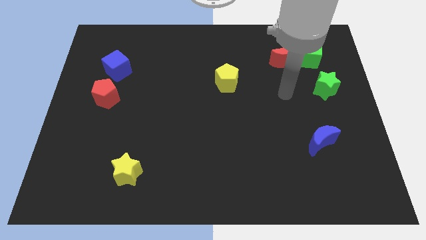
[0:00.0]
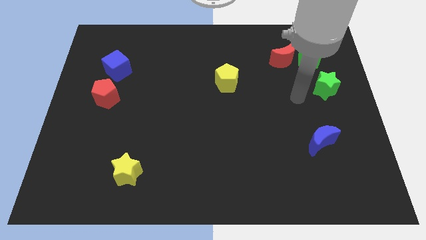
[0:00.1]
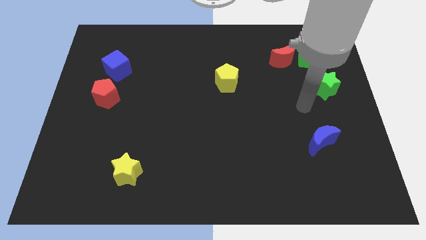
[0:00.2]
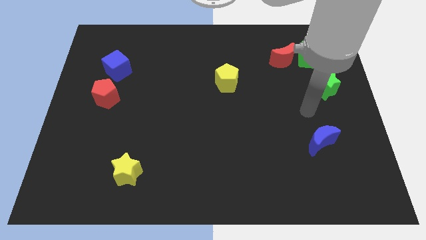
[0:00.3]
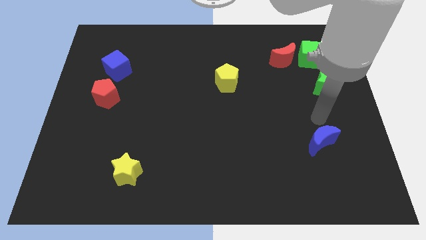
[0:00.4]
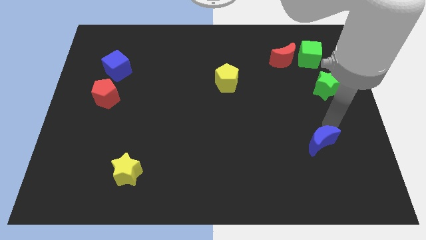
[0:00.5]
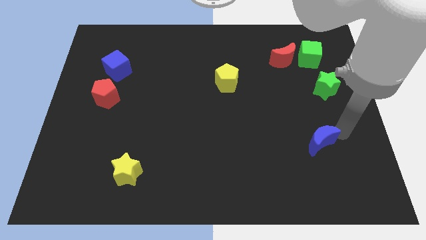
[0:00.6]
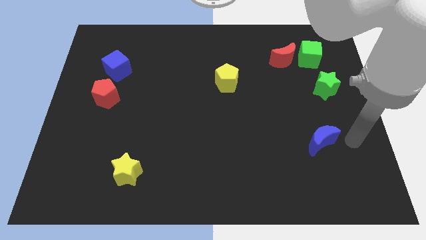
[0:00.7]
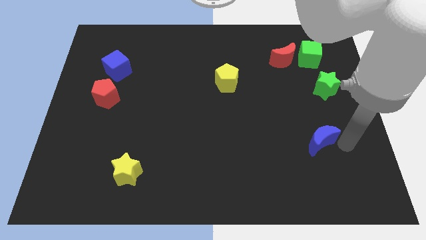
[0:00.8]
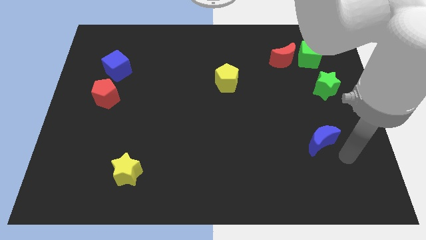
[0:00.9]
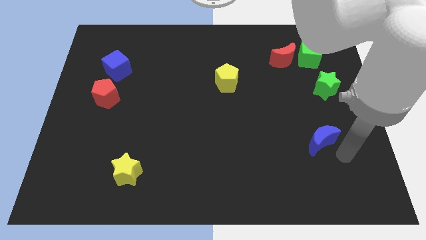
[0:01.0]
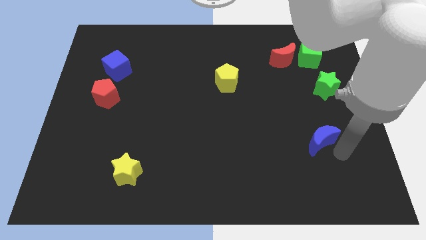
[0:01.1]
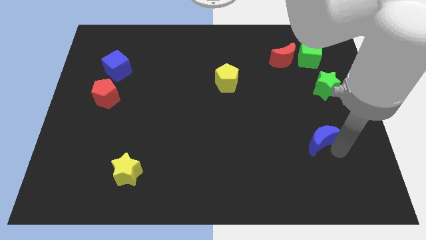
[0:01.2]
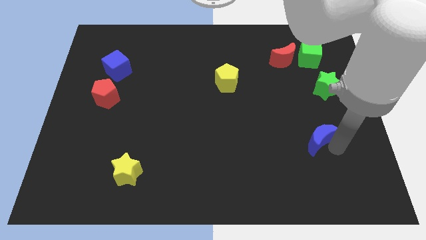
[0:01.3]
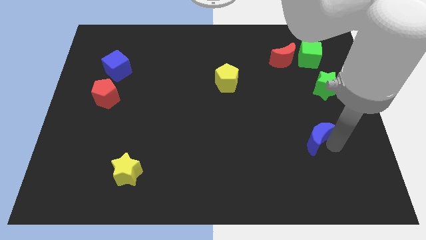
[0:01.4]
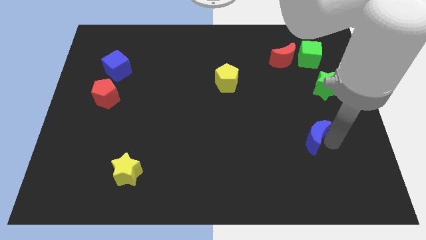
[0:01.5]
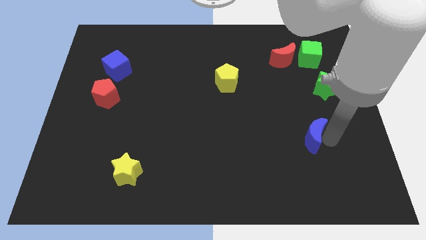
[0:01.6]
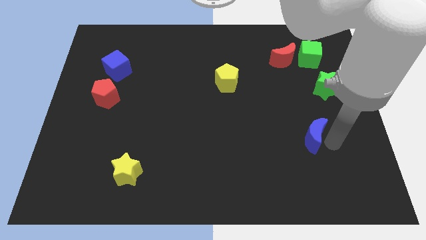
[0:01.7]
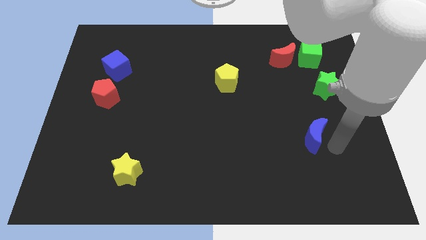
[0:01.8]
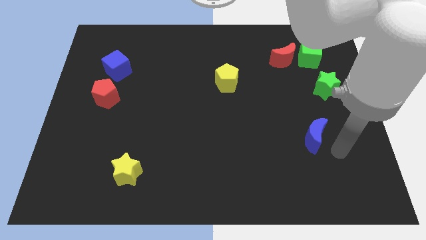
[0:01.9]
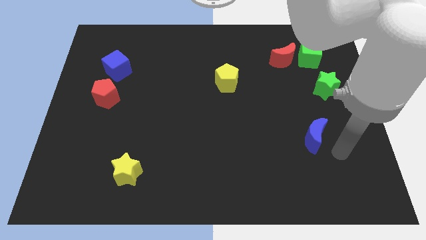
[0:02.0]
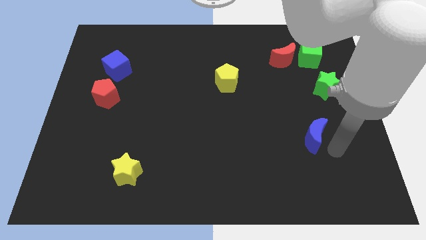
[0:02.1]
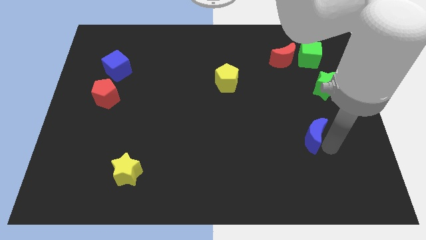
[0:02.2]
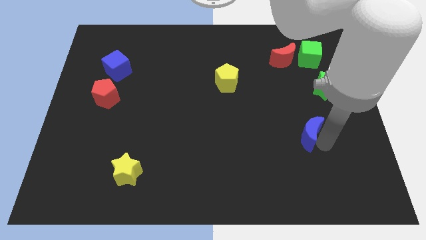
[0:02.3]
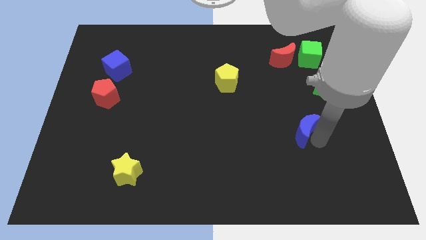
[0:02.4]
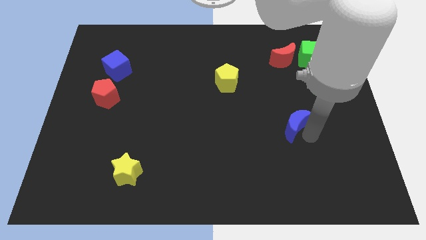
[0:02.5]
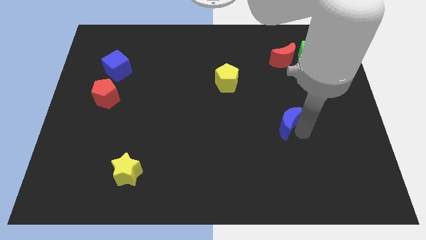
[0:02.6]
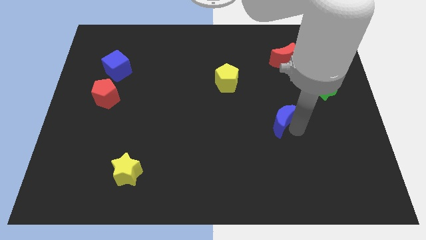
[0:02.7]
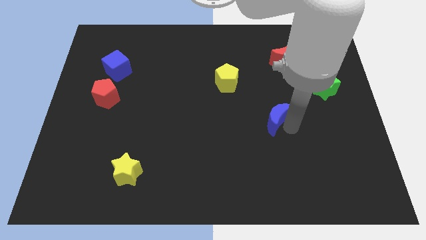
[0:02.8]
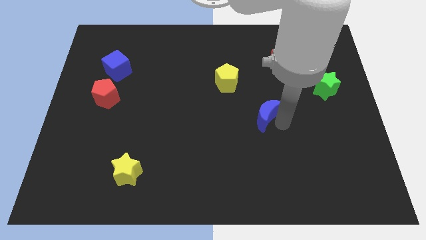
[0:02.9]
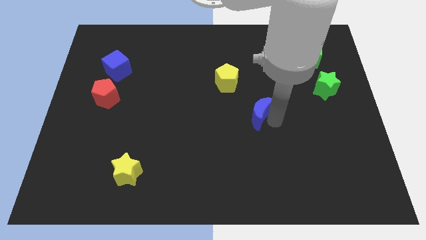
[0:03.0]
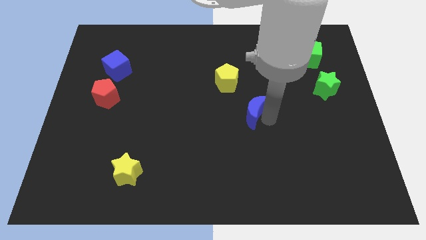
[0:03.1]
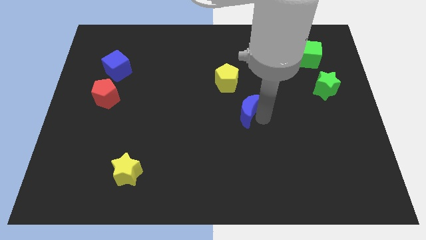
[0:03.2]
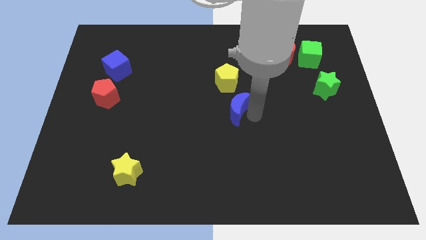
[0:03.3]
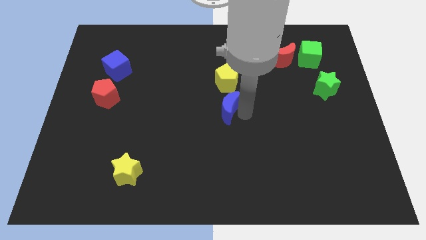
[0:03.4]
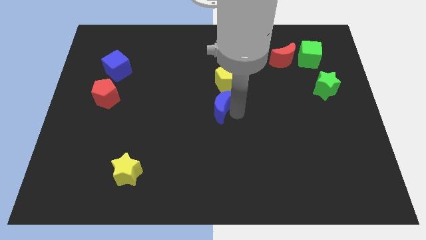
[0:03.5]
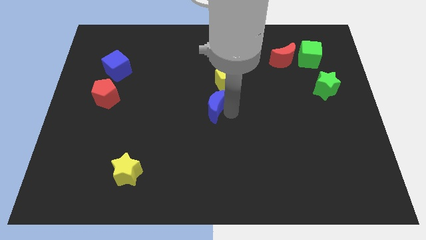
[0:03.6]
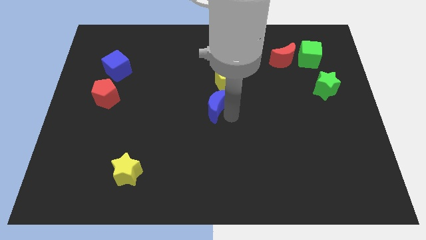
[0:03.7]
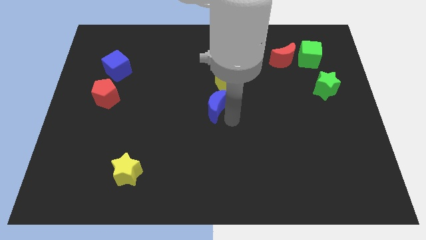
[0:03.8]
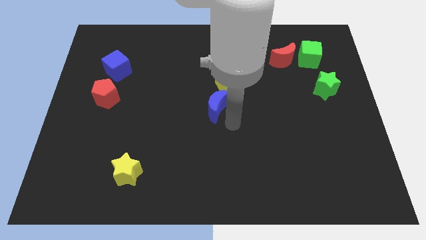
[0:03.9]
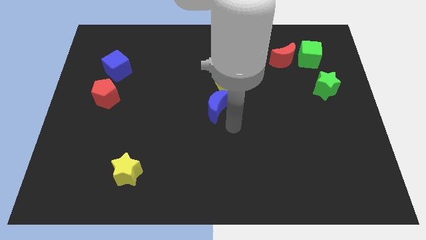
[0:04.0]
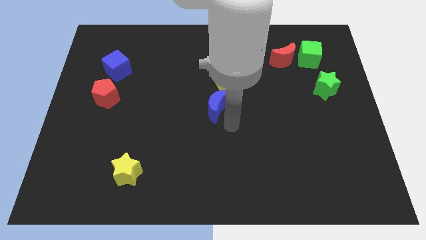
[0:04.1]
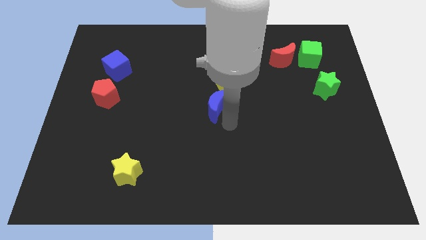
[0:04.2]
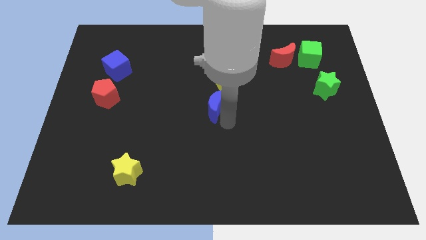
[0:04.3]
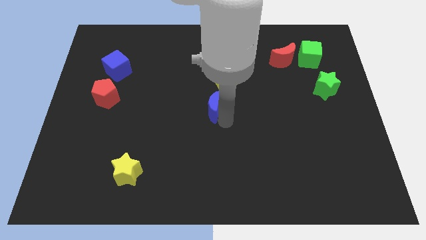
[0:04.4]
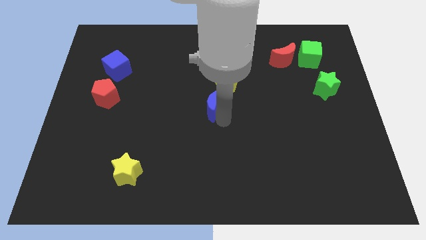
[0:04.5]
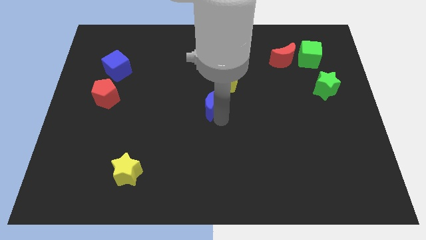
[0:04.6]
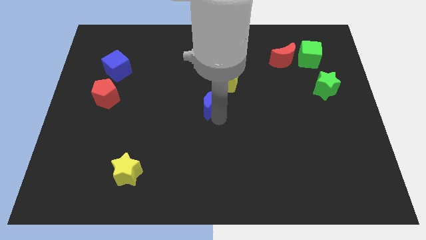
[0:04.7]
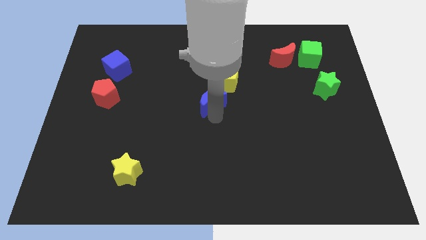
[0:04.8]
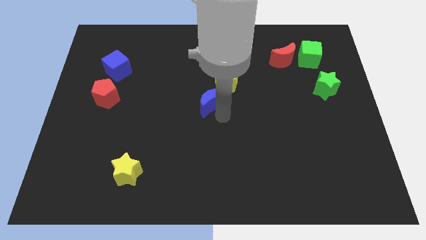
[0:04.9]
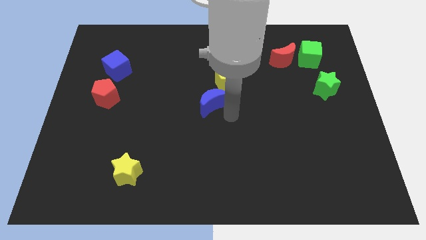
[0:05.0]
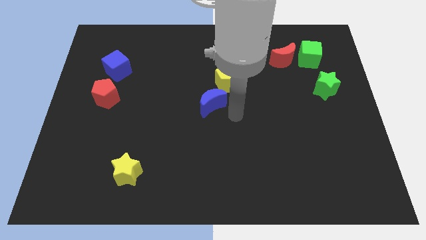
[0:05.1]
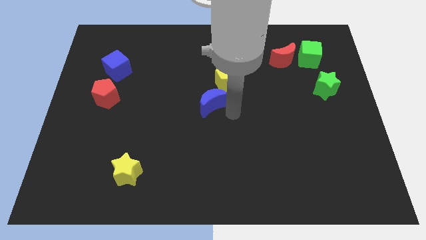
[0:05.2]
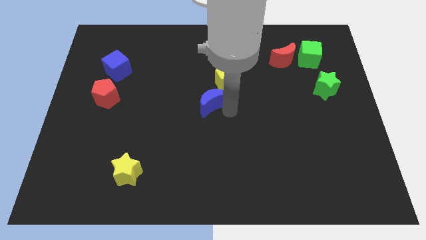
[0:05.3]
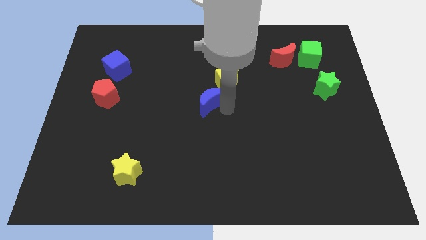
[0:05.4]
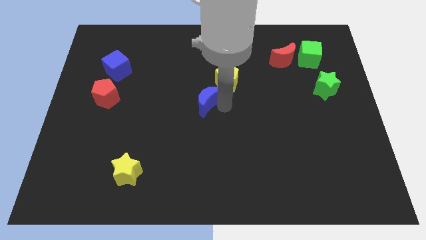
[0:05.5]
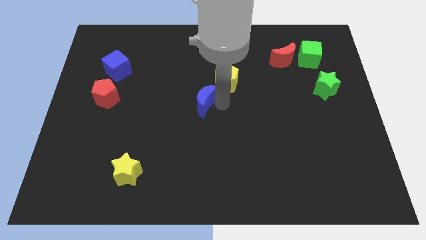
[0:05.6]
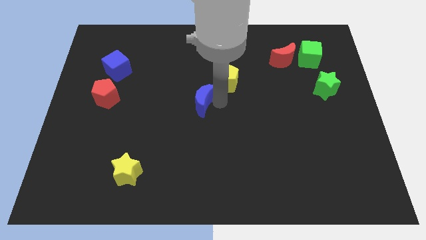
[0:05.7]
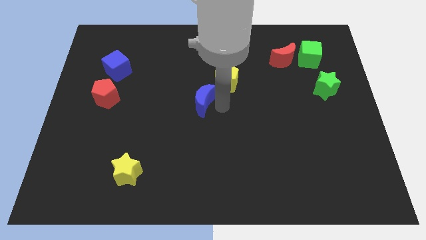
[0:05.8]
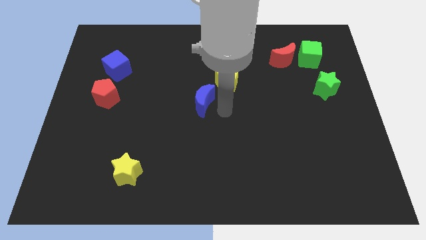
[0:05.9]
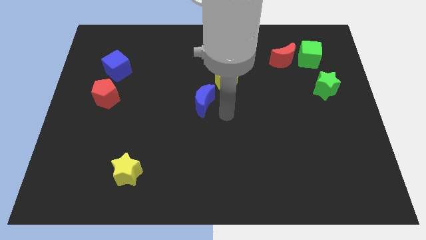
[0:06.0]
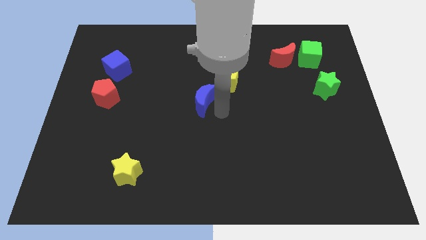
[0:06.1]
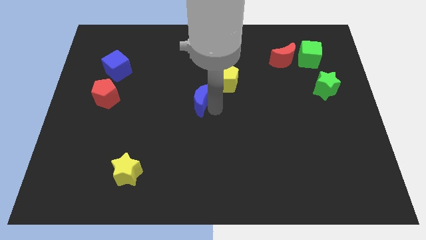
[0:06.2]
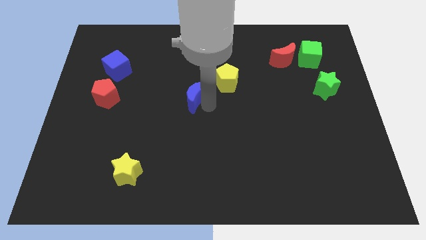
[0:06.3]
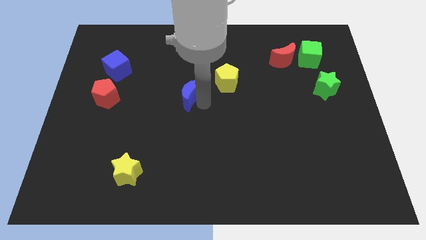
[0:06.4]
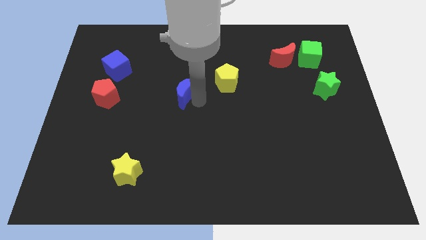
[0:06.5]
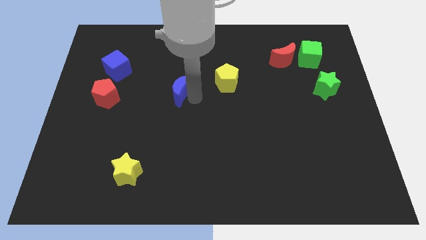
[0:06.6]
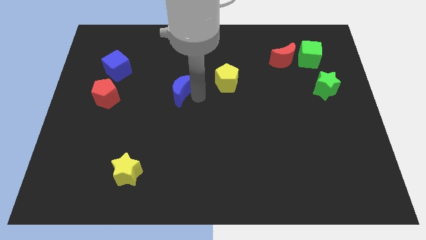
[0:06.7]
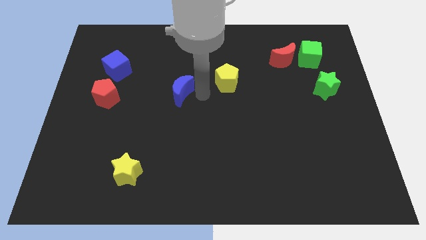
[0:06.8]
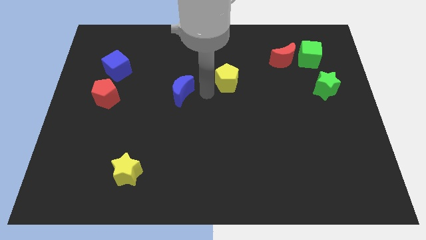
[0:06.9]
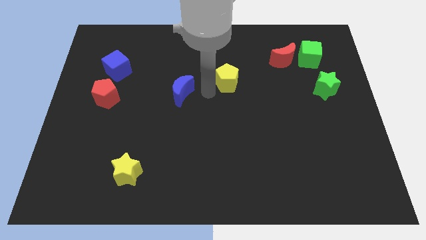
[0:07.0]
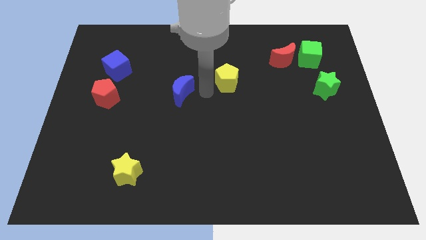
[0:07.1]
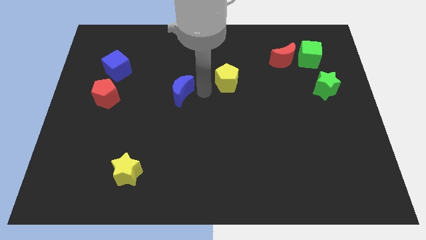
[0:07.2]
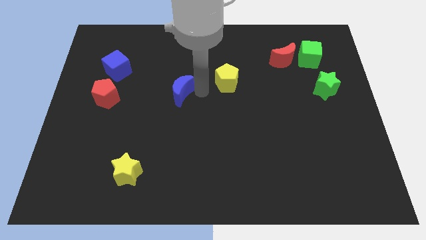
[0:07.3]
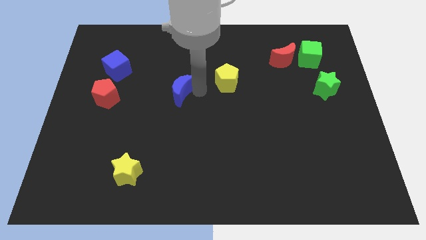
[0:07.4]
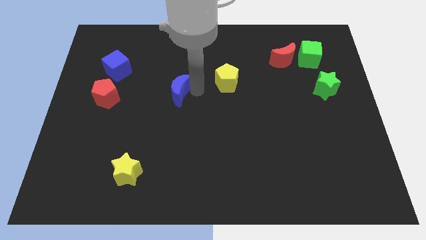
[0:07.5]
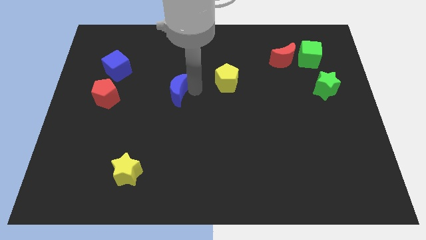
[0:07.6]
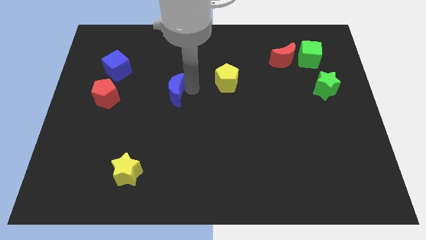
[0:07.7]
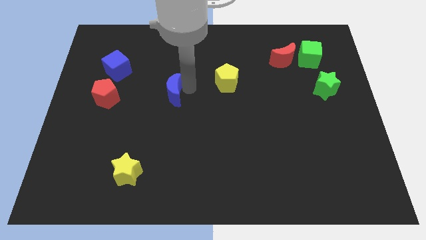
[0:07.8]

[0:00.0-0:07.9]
move the blue moon to the right side of the red pentagon
